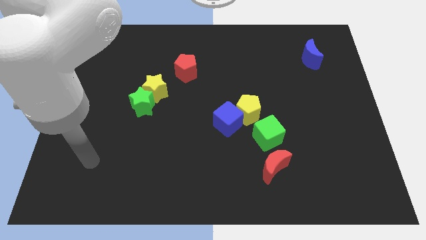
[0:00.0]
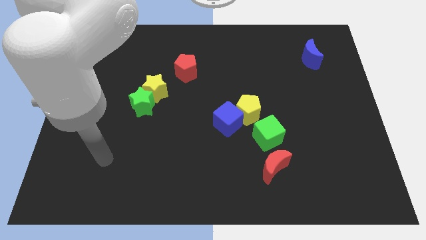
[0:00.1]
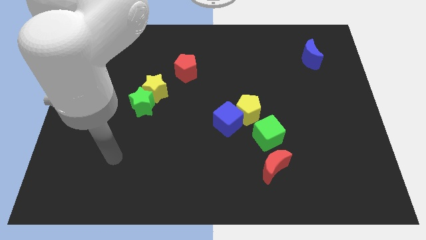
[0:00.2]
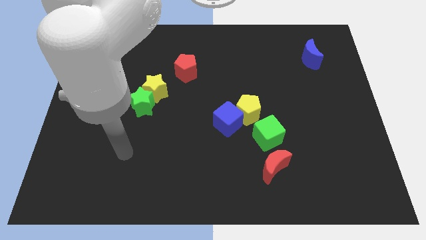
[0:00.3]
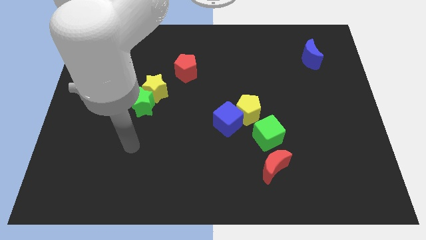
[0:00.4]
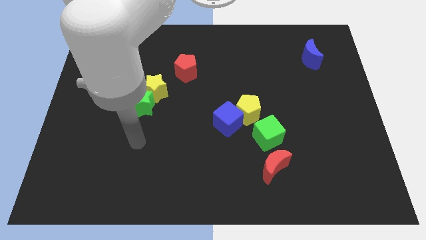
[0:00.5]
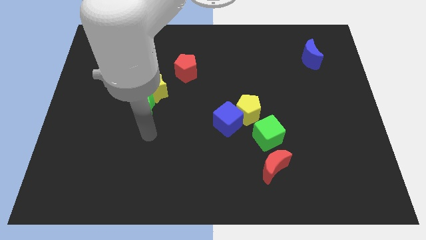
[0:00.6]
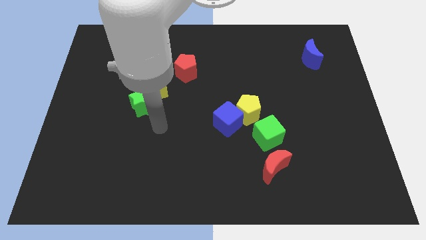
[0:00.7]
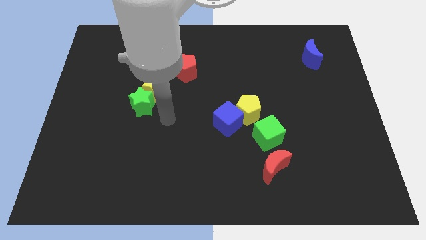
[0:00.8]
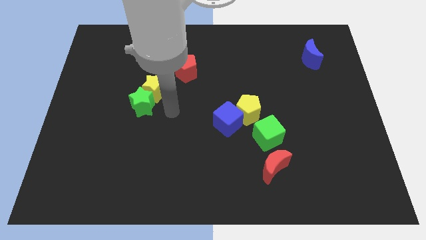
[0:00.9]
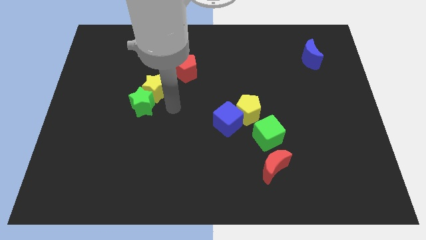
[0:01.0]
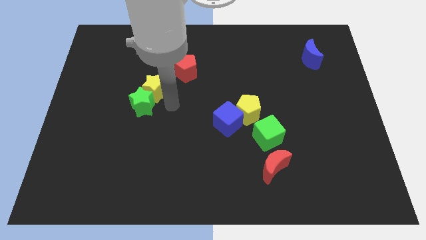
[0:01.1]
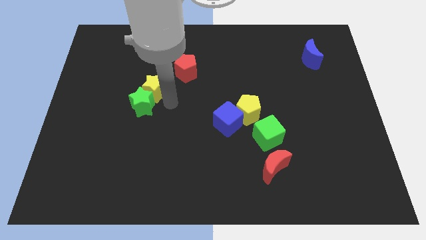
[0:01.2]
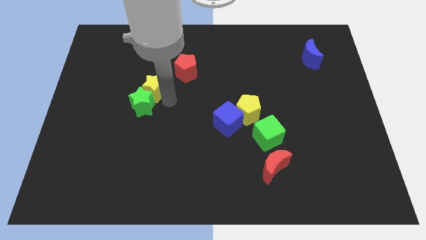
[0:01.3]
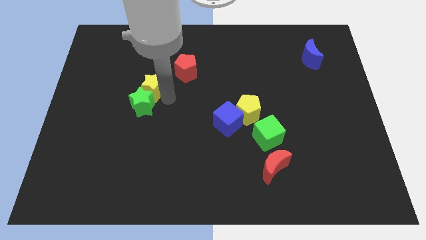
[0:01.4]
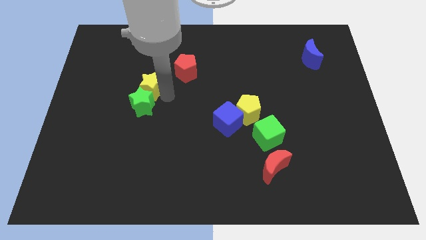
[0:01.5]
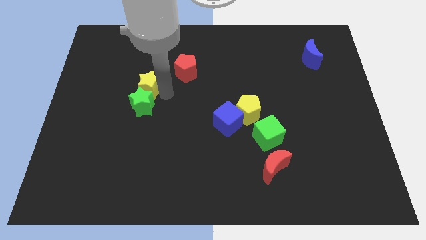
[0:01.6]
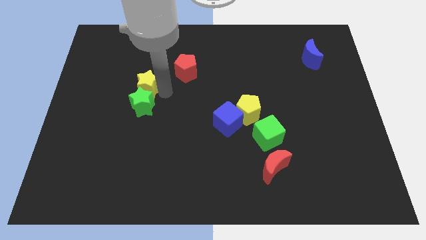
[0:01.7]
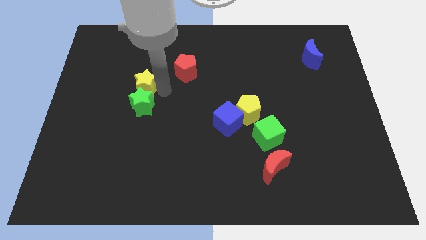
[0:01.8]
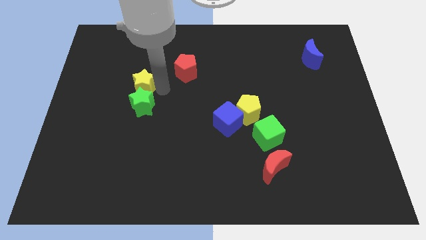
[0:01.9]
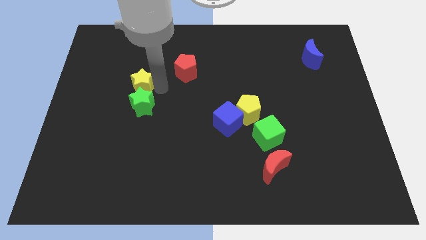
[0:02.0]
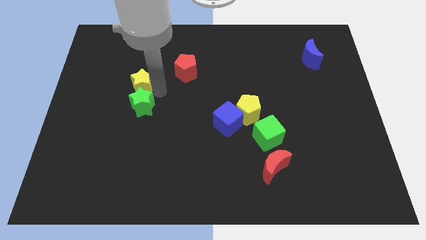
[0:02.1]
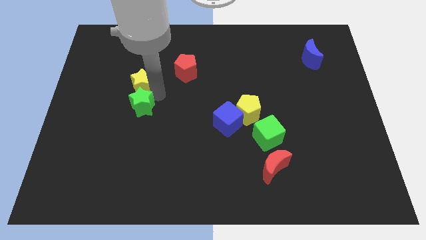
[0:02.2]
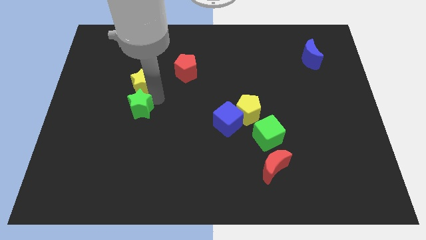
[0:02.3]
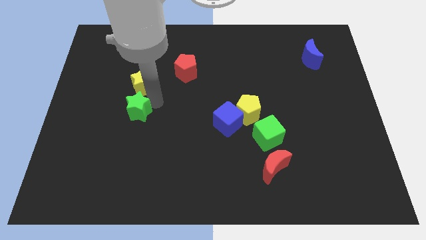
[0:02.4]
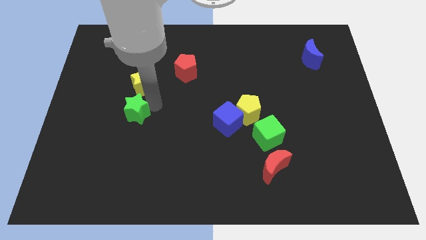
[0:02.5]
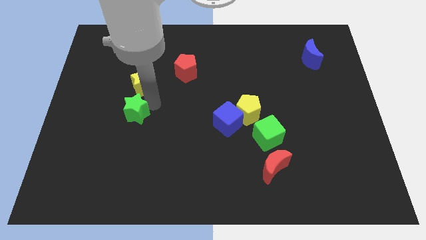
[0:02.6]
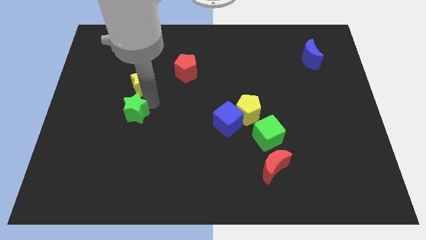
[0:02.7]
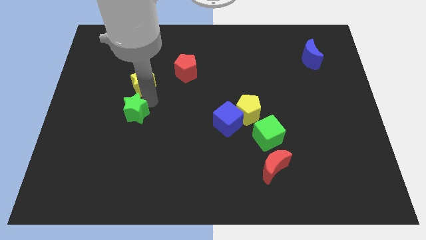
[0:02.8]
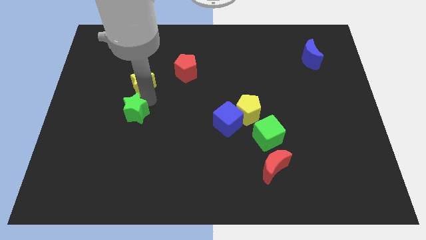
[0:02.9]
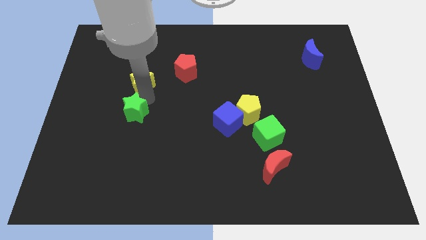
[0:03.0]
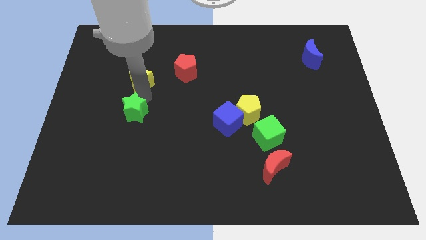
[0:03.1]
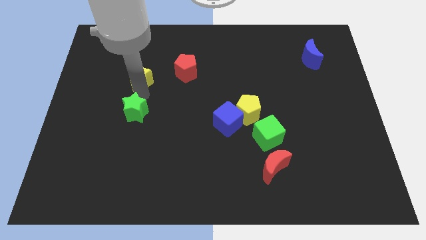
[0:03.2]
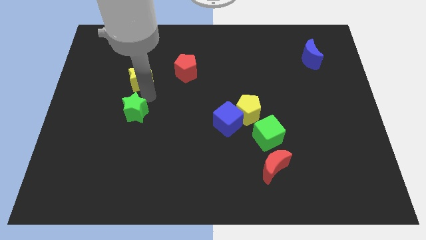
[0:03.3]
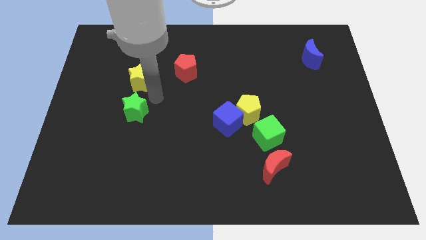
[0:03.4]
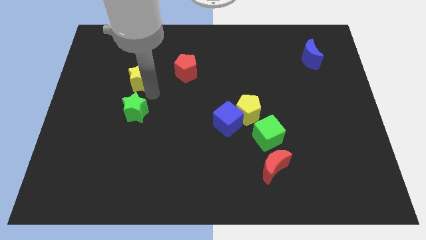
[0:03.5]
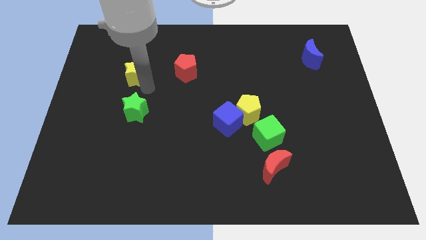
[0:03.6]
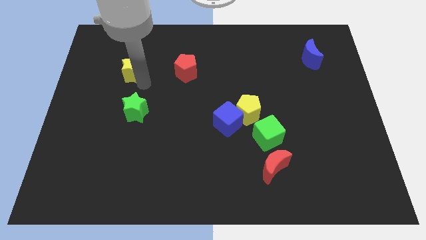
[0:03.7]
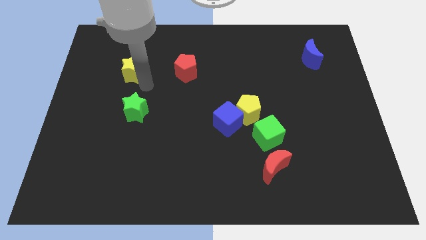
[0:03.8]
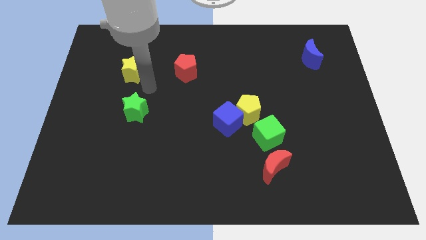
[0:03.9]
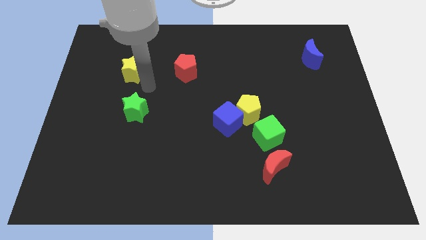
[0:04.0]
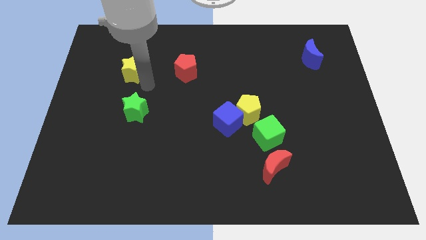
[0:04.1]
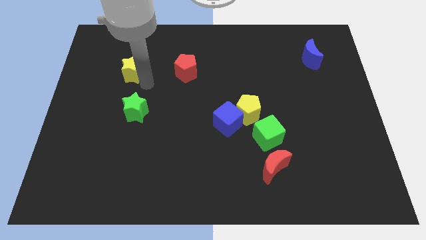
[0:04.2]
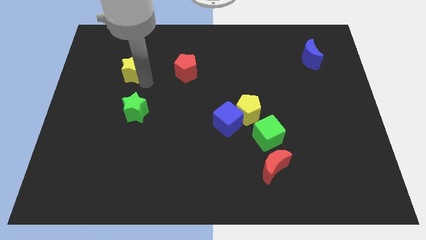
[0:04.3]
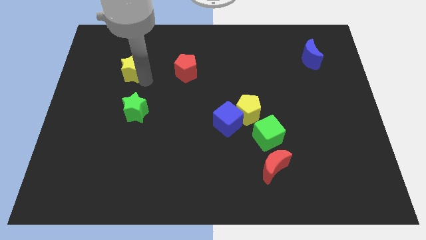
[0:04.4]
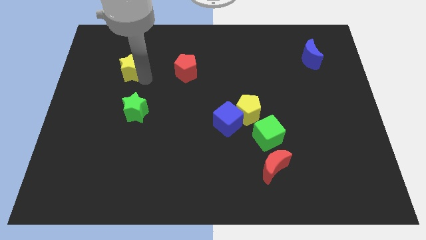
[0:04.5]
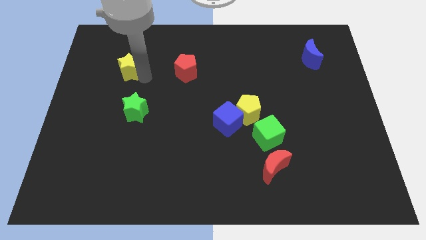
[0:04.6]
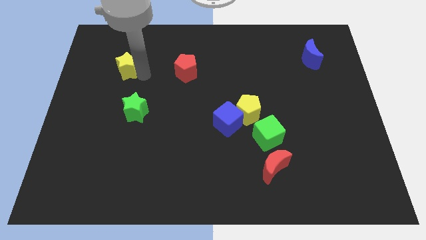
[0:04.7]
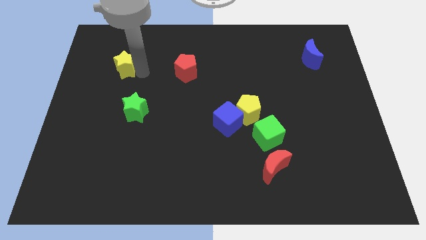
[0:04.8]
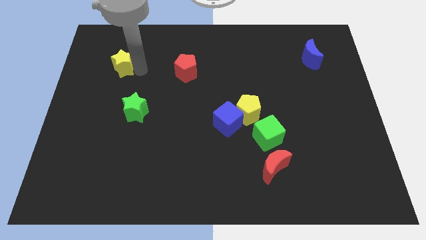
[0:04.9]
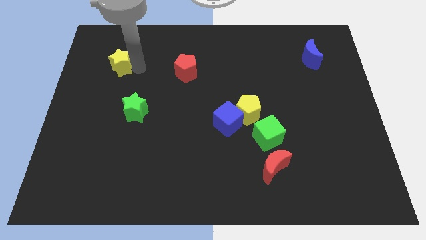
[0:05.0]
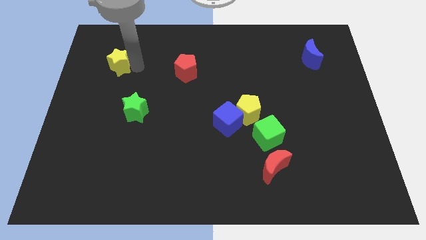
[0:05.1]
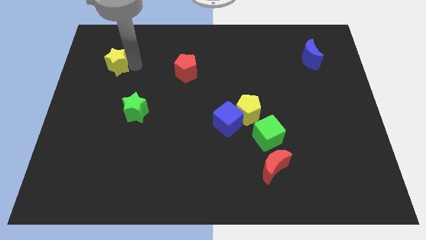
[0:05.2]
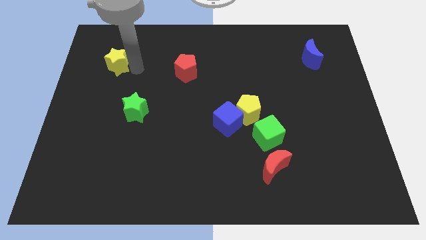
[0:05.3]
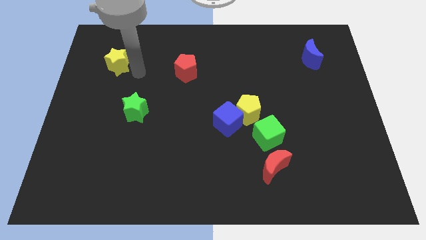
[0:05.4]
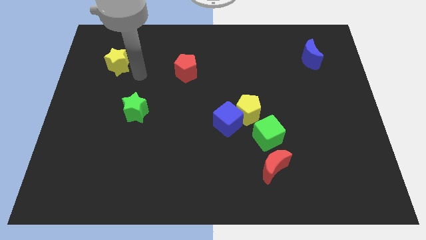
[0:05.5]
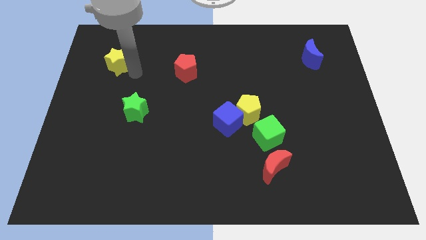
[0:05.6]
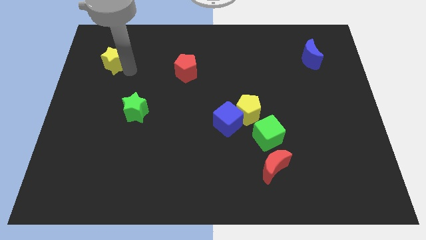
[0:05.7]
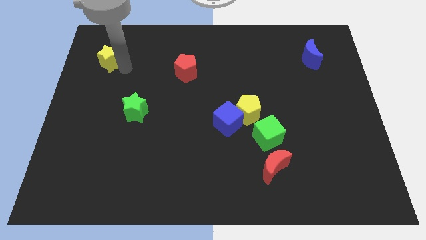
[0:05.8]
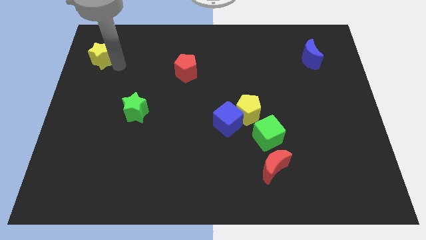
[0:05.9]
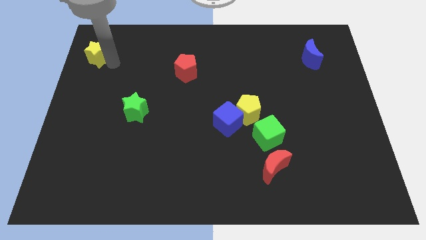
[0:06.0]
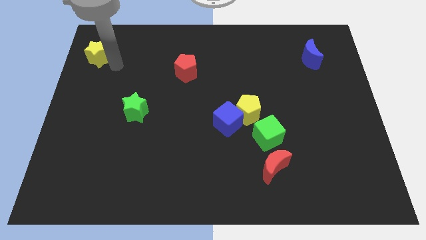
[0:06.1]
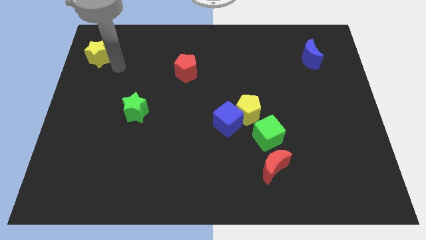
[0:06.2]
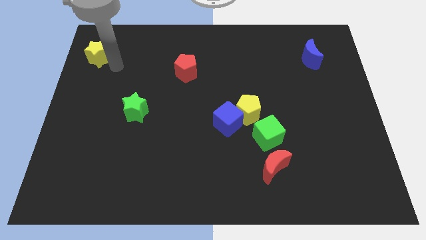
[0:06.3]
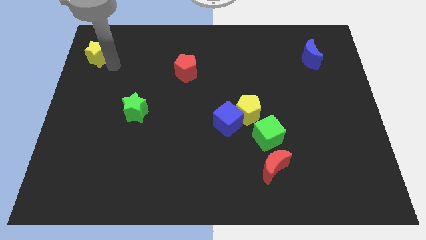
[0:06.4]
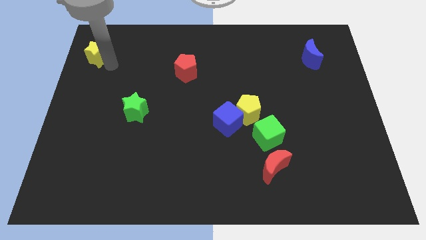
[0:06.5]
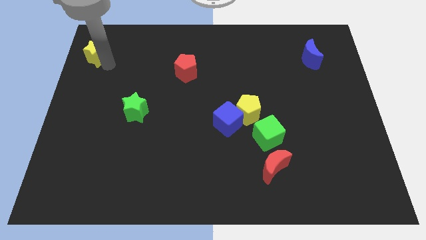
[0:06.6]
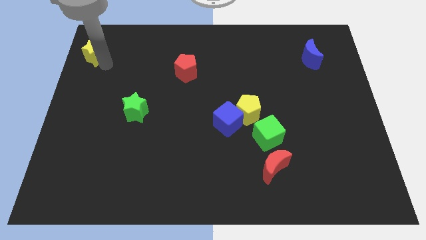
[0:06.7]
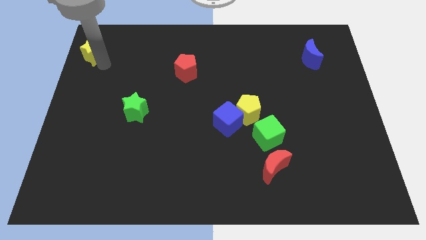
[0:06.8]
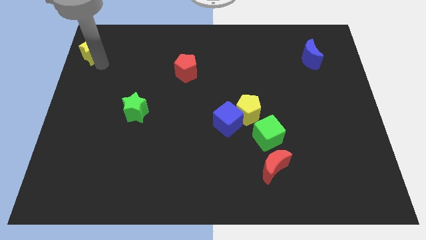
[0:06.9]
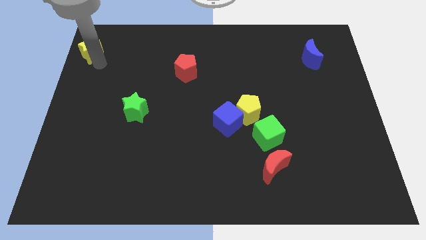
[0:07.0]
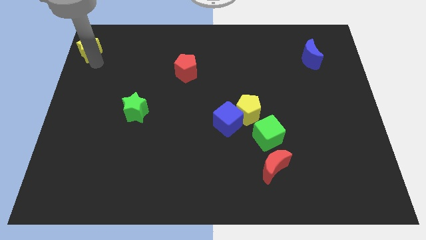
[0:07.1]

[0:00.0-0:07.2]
slide the yellow star to the top left corner
